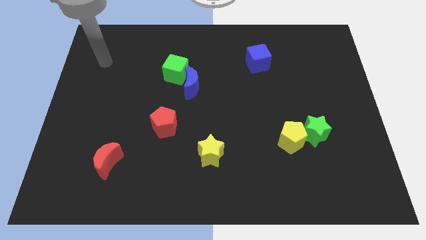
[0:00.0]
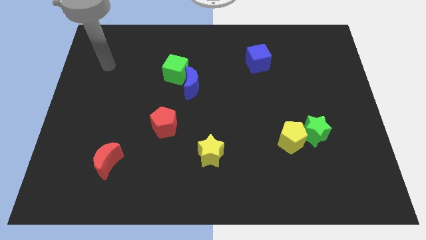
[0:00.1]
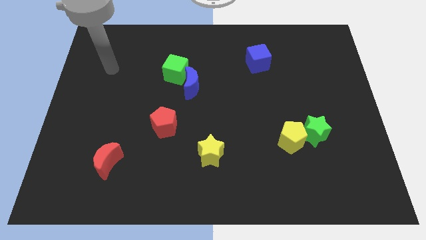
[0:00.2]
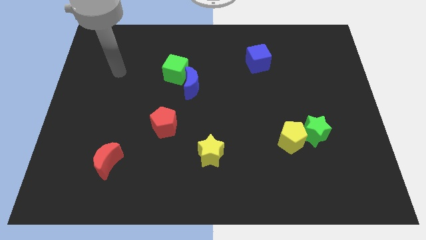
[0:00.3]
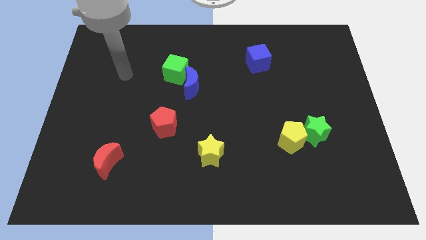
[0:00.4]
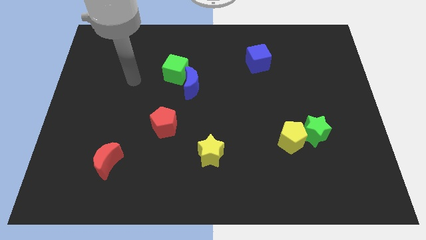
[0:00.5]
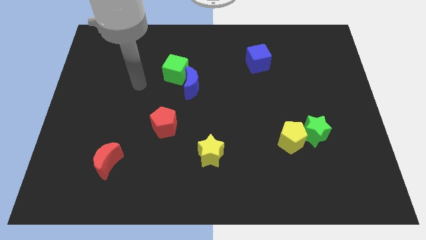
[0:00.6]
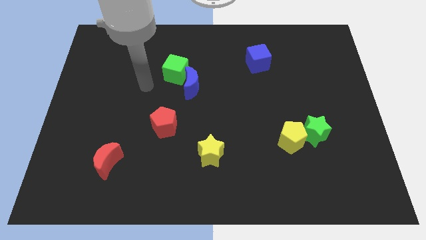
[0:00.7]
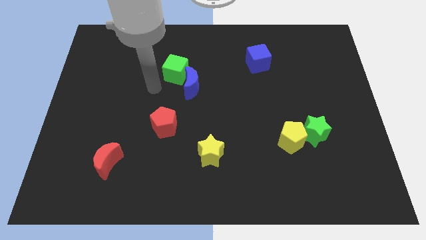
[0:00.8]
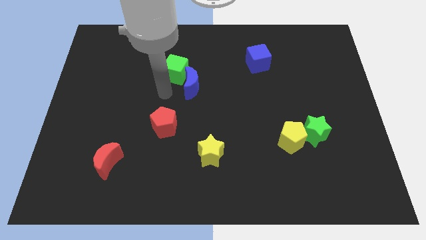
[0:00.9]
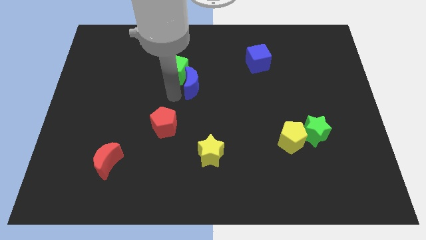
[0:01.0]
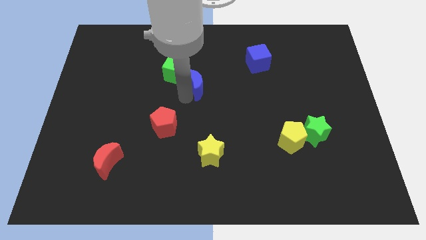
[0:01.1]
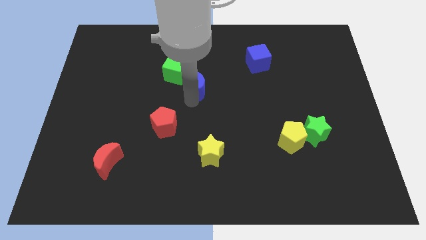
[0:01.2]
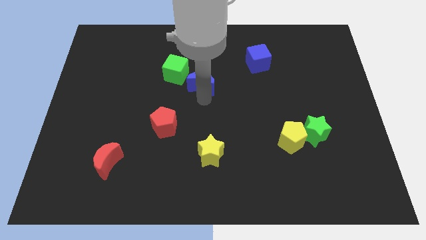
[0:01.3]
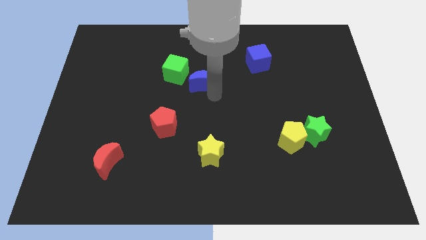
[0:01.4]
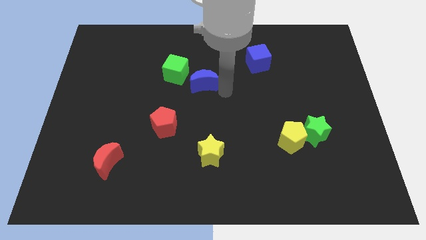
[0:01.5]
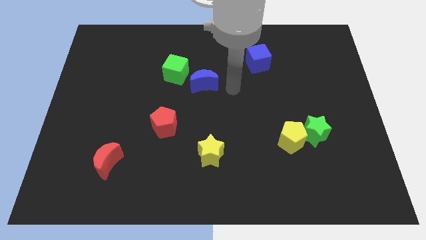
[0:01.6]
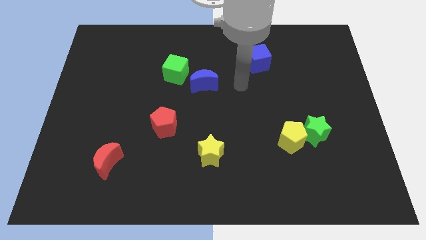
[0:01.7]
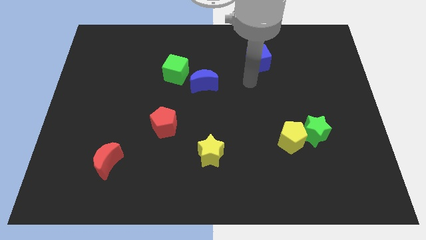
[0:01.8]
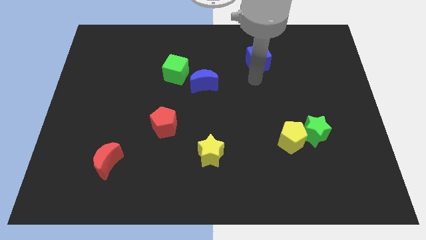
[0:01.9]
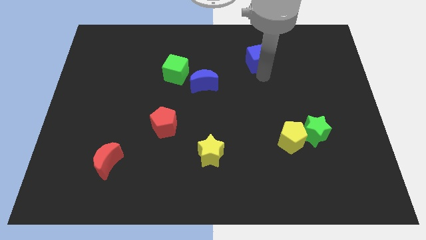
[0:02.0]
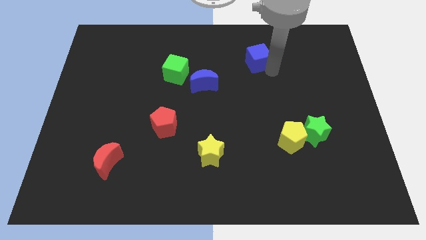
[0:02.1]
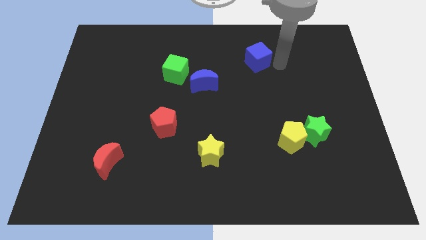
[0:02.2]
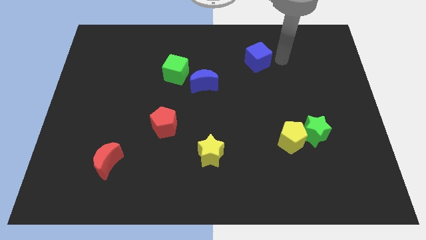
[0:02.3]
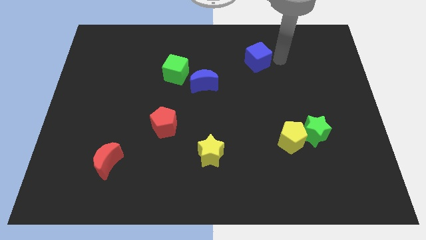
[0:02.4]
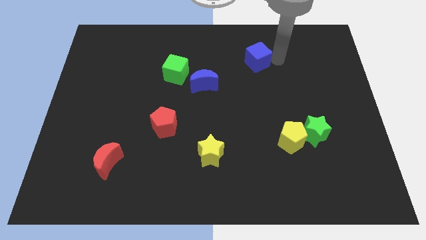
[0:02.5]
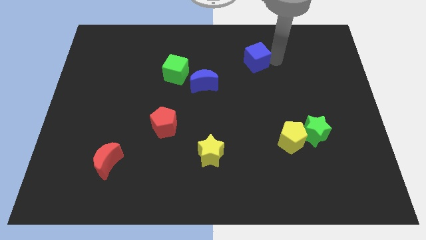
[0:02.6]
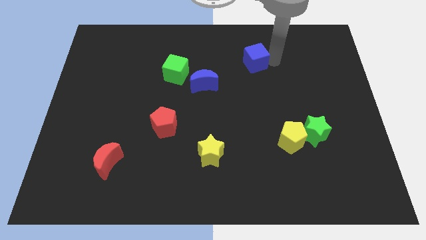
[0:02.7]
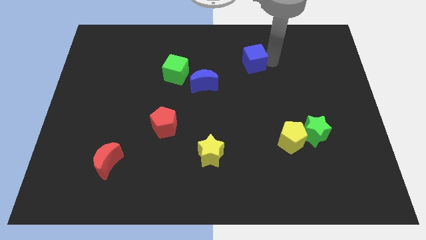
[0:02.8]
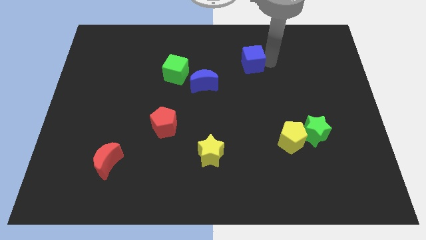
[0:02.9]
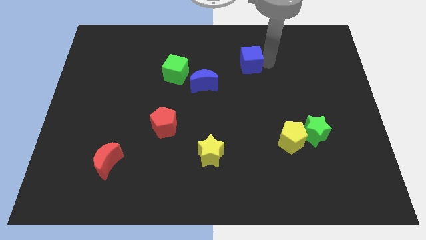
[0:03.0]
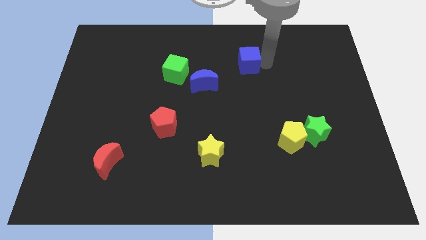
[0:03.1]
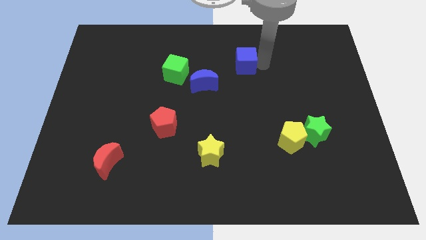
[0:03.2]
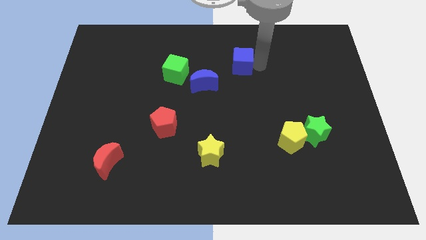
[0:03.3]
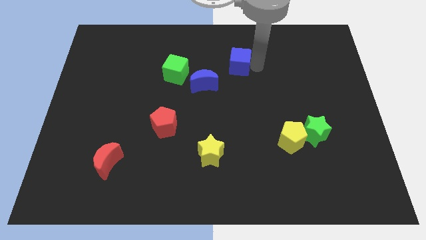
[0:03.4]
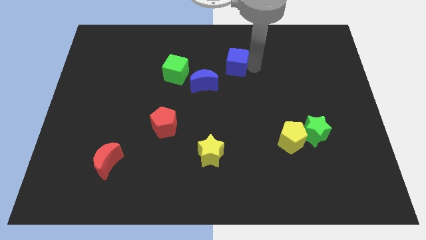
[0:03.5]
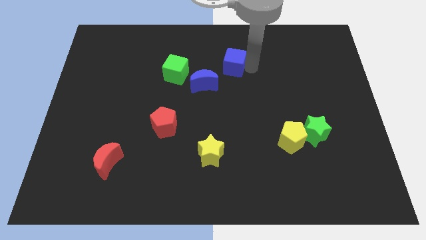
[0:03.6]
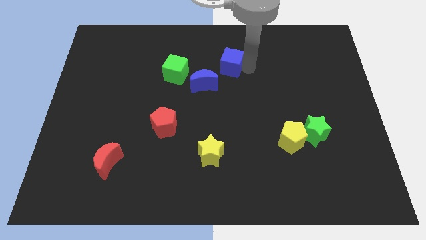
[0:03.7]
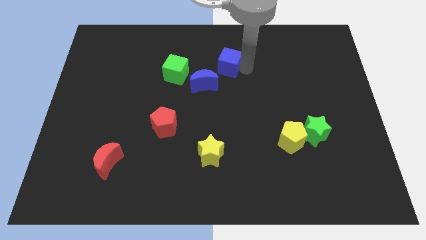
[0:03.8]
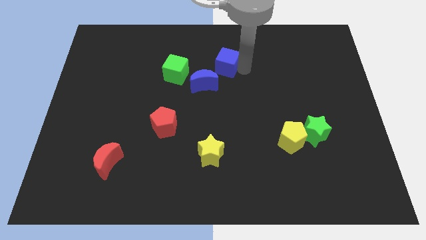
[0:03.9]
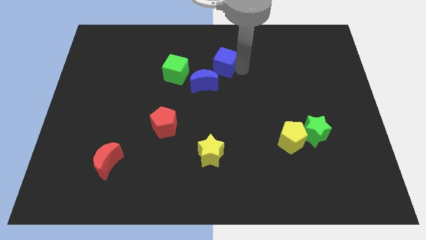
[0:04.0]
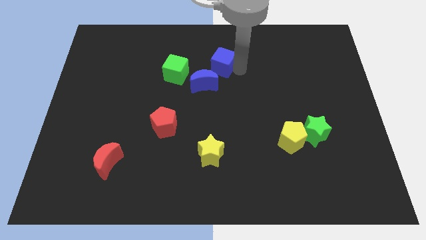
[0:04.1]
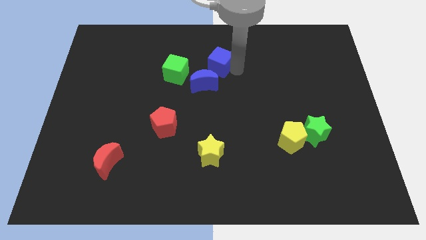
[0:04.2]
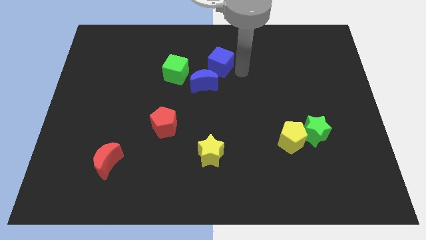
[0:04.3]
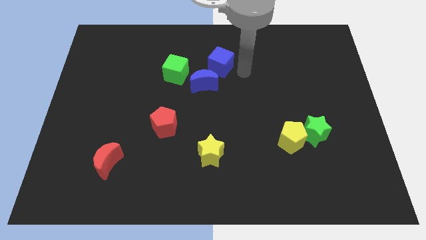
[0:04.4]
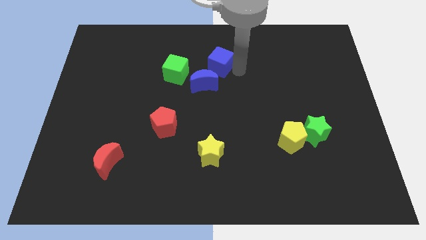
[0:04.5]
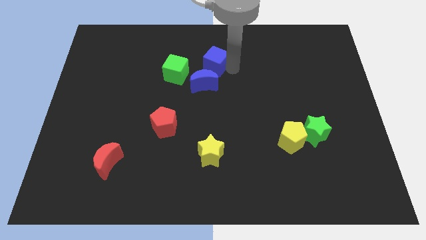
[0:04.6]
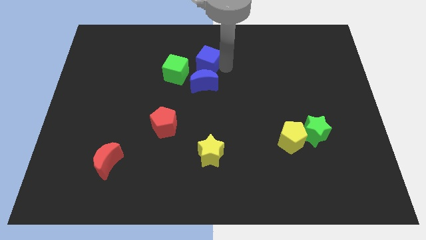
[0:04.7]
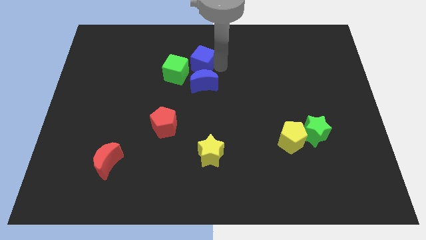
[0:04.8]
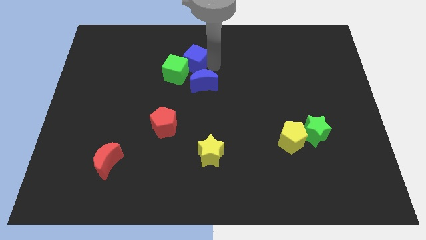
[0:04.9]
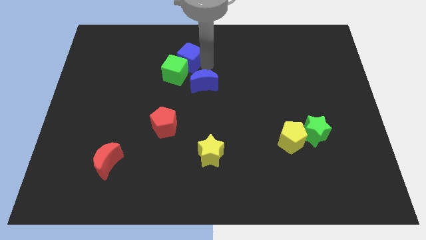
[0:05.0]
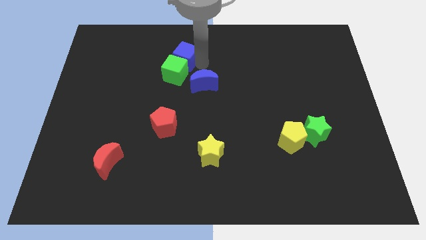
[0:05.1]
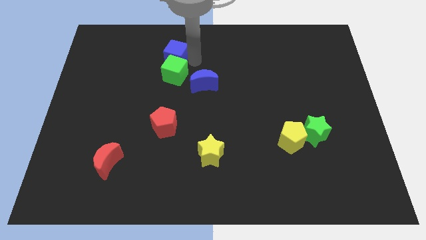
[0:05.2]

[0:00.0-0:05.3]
push the blue cube to the left

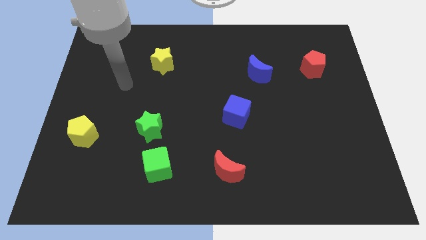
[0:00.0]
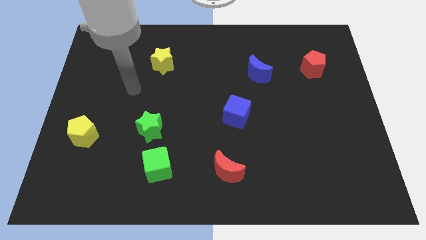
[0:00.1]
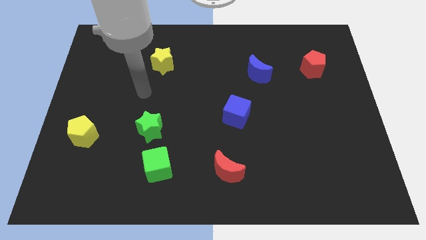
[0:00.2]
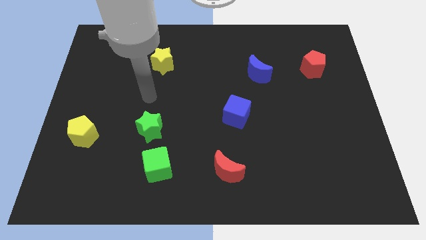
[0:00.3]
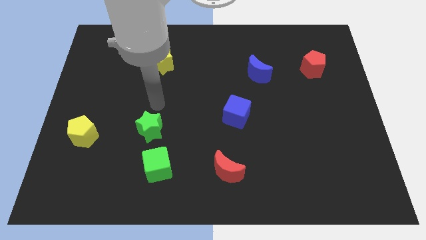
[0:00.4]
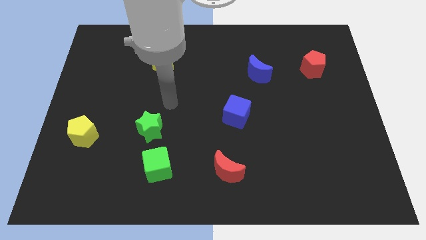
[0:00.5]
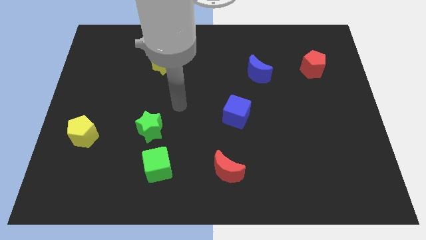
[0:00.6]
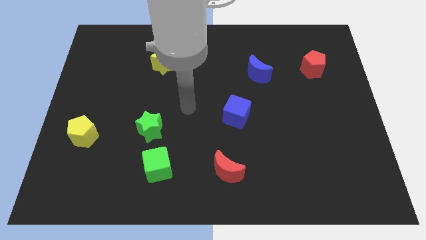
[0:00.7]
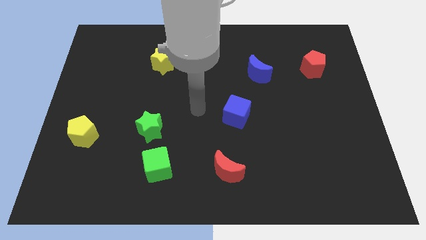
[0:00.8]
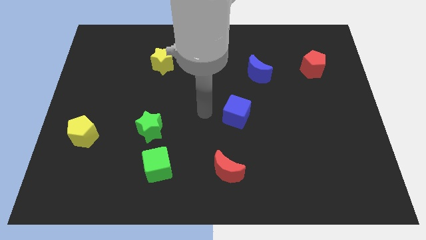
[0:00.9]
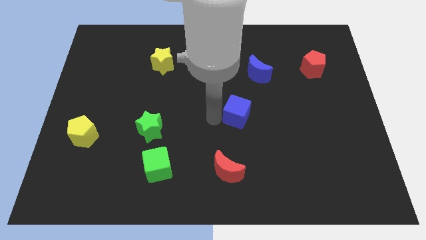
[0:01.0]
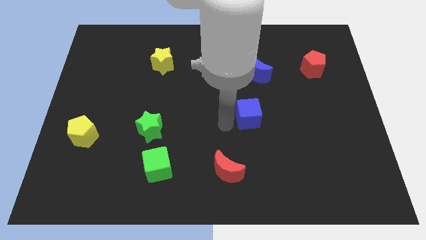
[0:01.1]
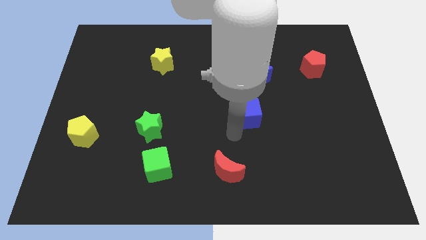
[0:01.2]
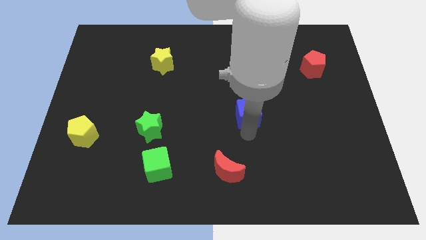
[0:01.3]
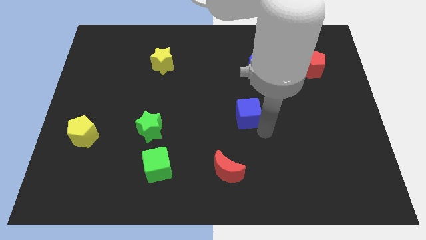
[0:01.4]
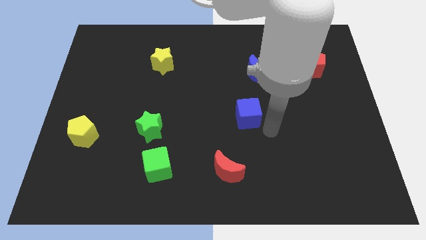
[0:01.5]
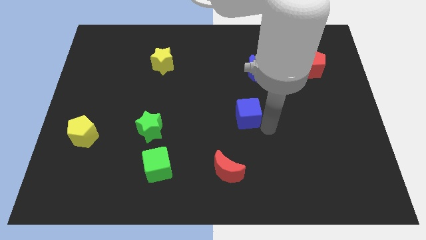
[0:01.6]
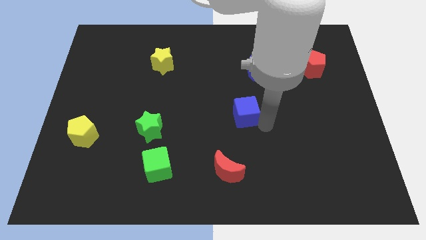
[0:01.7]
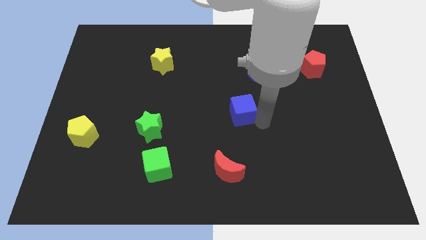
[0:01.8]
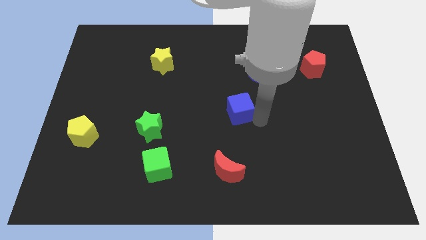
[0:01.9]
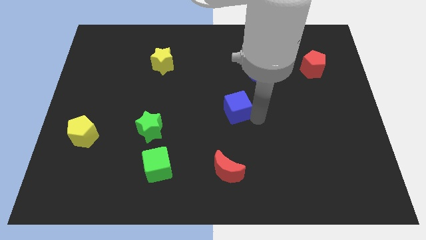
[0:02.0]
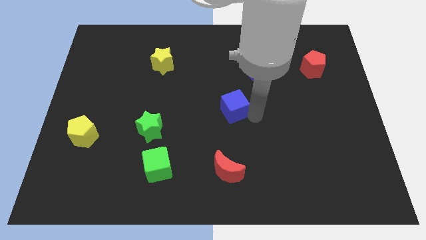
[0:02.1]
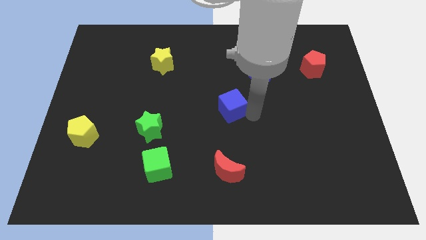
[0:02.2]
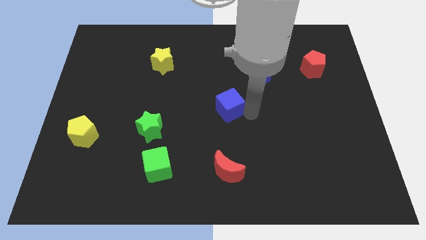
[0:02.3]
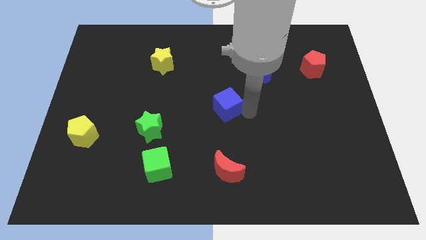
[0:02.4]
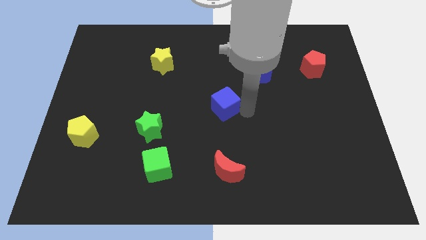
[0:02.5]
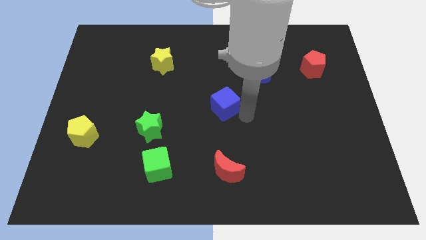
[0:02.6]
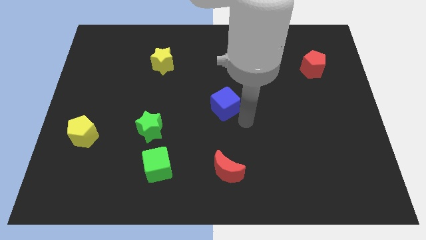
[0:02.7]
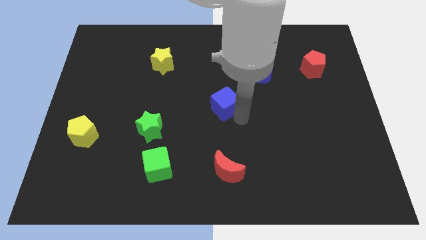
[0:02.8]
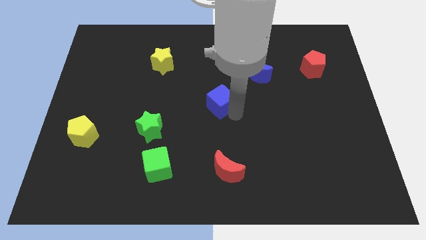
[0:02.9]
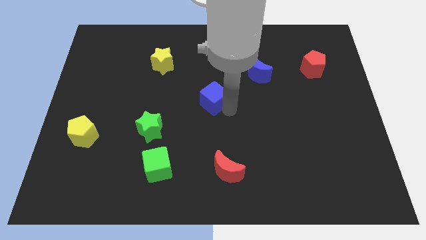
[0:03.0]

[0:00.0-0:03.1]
slide the blue cube somewhat upwards and left
